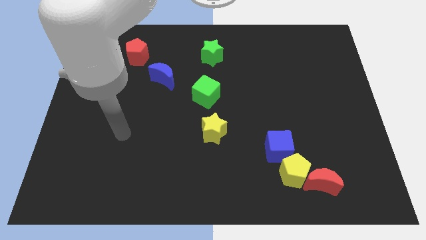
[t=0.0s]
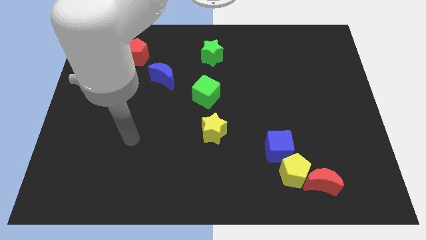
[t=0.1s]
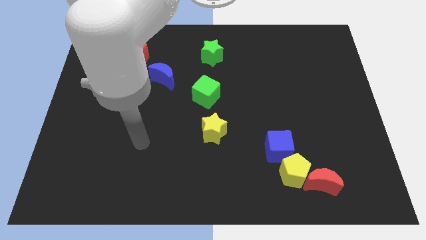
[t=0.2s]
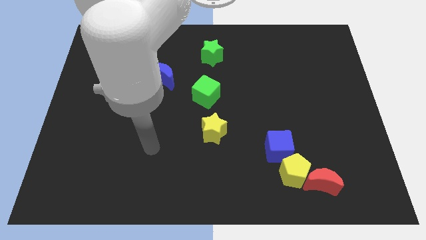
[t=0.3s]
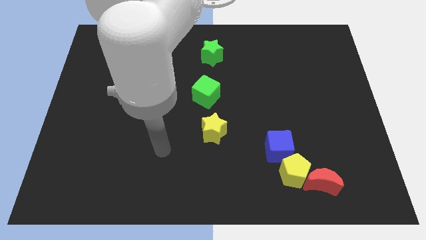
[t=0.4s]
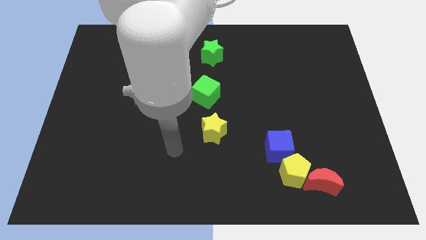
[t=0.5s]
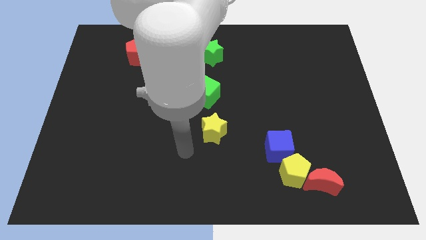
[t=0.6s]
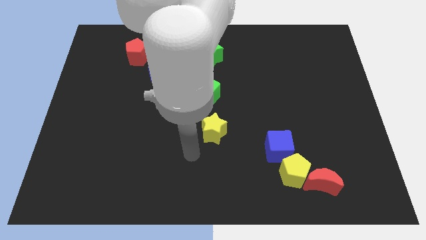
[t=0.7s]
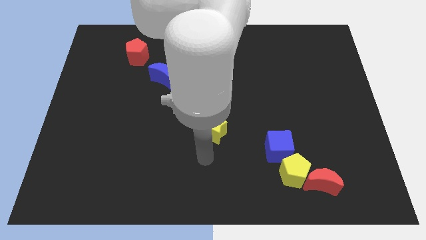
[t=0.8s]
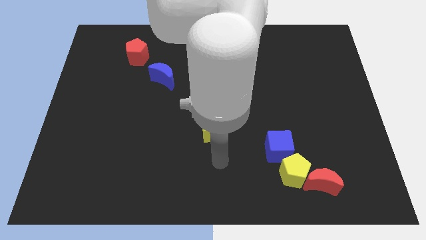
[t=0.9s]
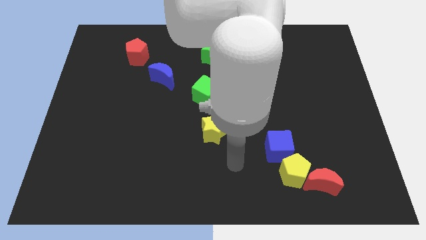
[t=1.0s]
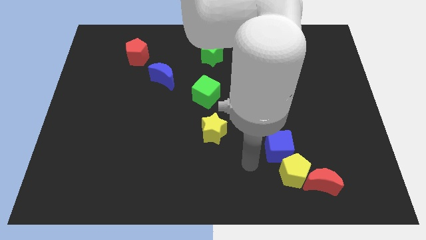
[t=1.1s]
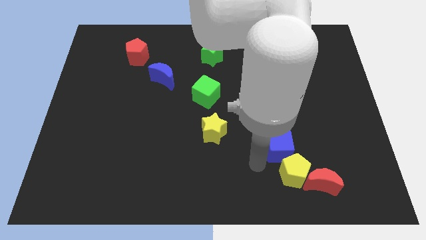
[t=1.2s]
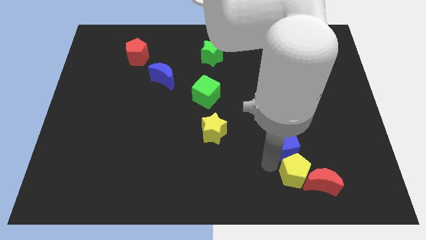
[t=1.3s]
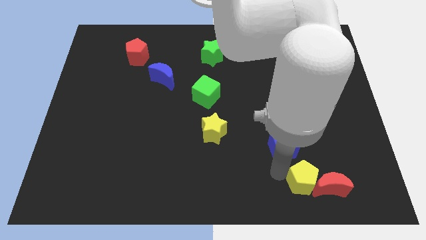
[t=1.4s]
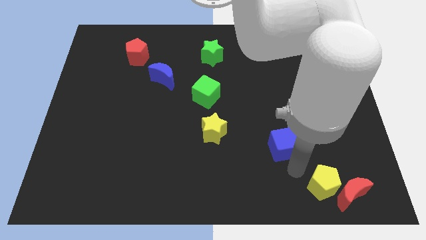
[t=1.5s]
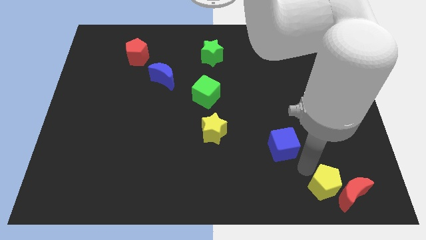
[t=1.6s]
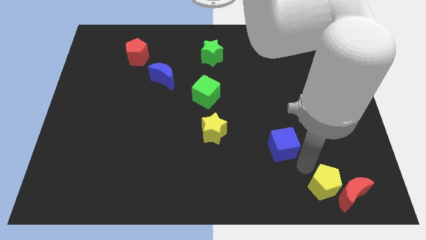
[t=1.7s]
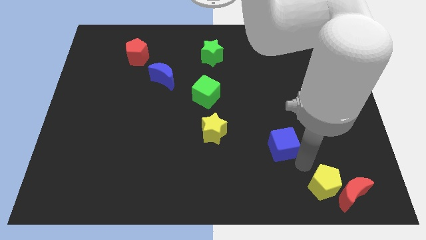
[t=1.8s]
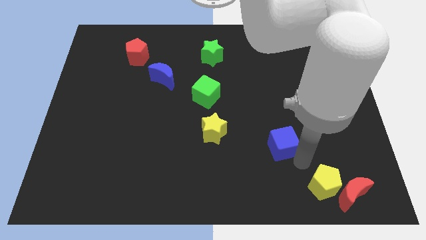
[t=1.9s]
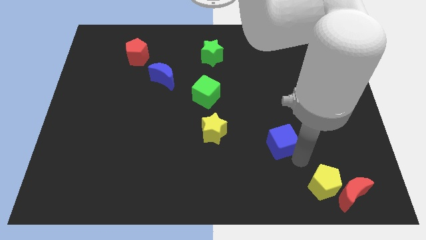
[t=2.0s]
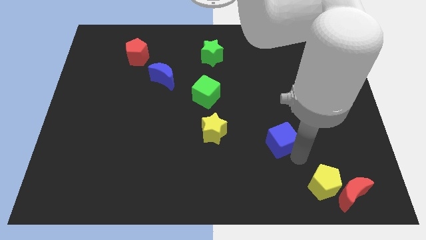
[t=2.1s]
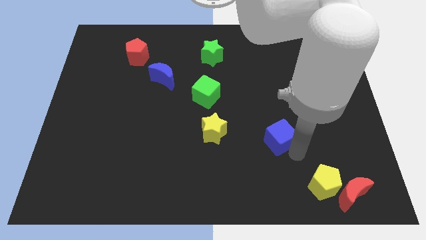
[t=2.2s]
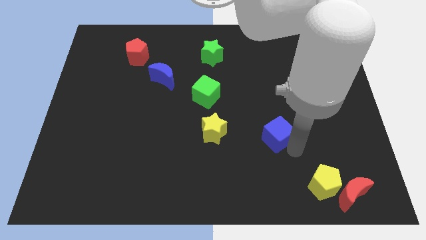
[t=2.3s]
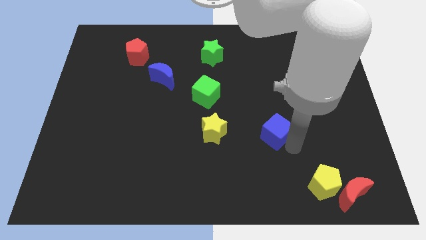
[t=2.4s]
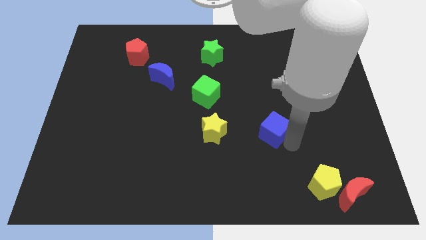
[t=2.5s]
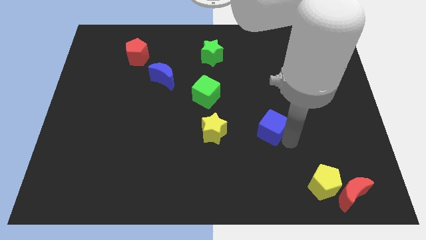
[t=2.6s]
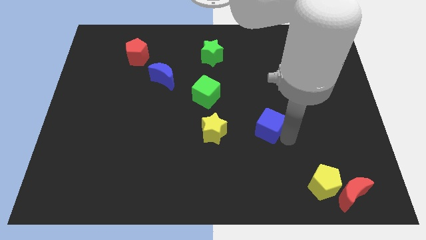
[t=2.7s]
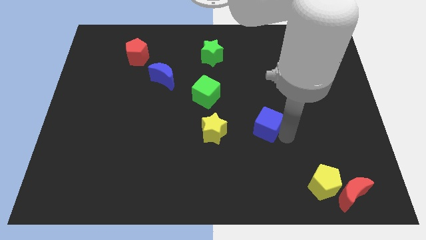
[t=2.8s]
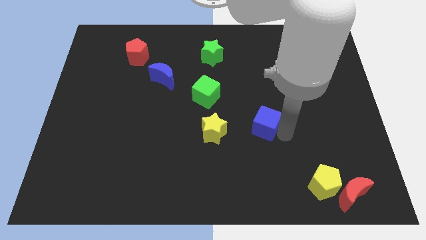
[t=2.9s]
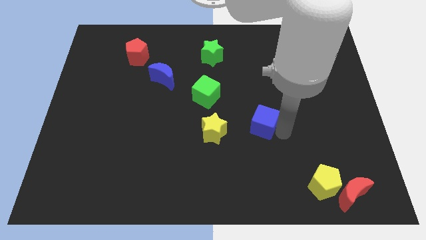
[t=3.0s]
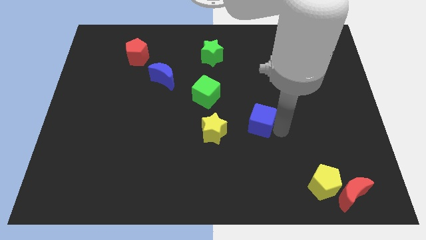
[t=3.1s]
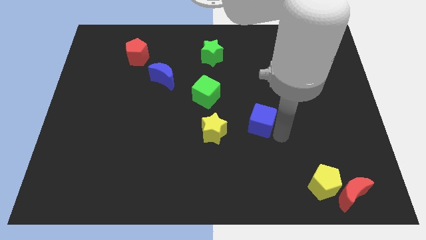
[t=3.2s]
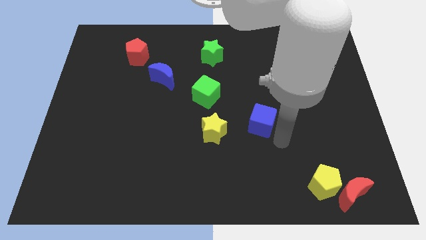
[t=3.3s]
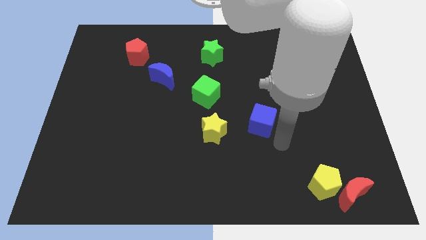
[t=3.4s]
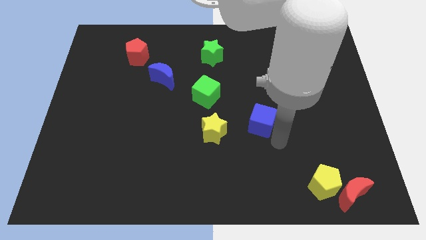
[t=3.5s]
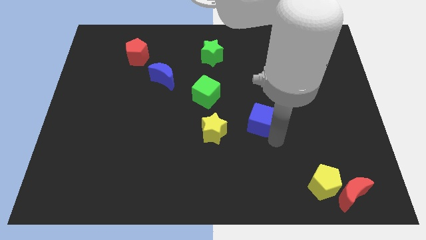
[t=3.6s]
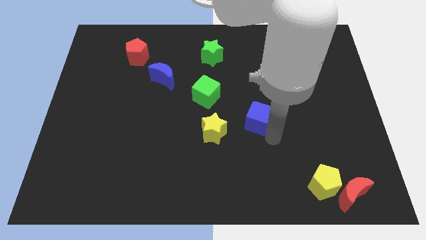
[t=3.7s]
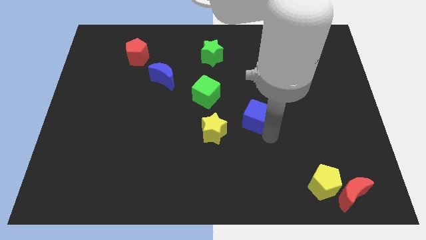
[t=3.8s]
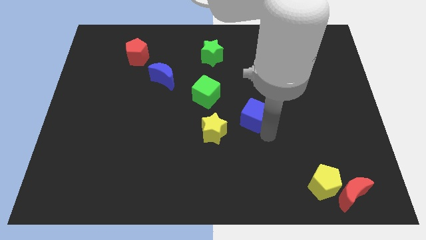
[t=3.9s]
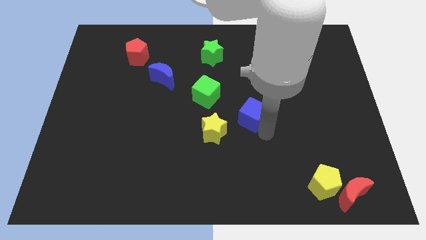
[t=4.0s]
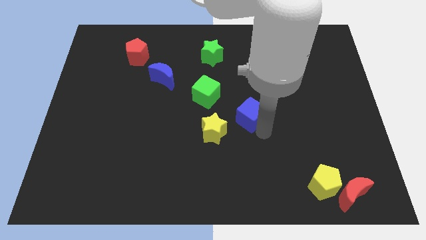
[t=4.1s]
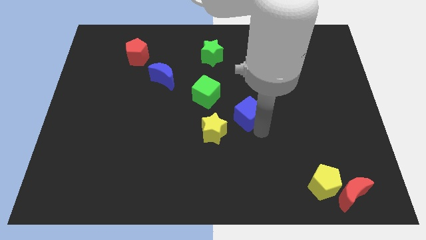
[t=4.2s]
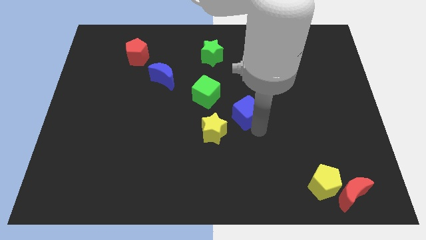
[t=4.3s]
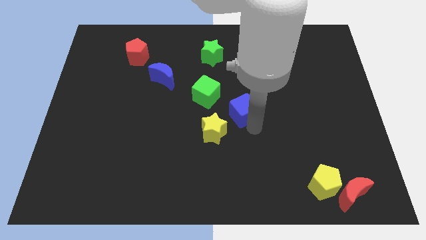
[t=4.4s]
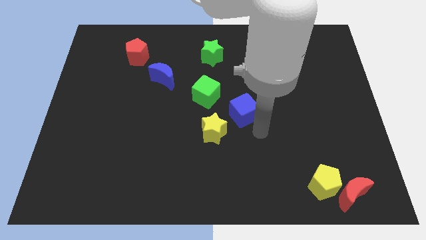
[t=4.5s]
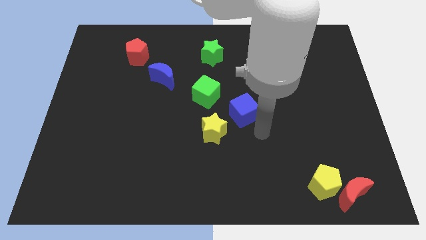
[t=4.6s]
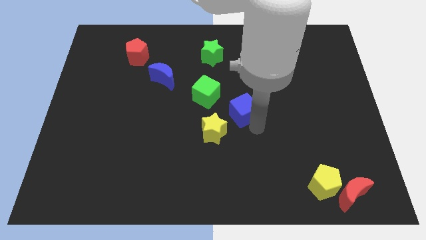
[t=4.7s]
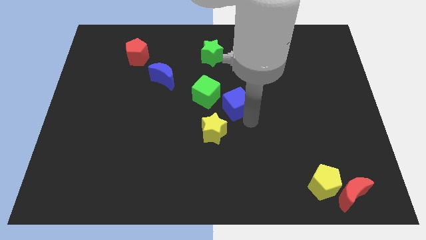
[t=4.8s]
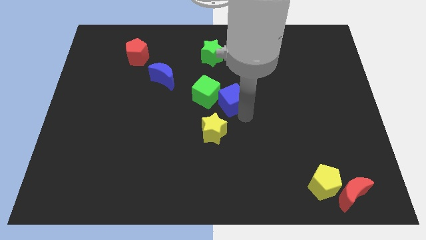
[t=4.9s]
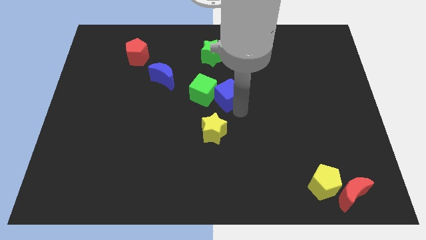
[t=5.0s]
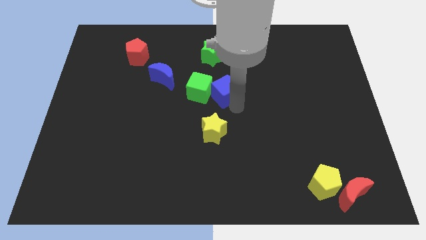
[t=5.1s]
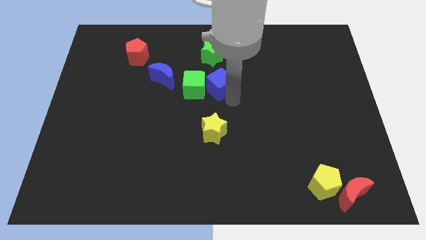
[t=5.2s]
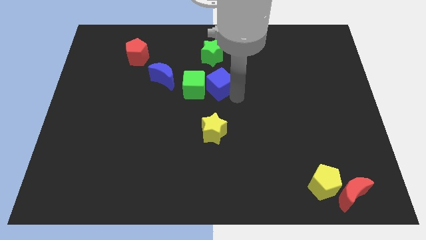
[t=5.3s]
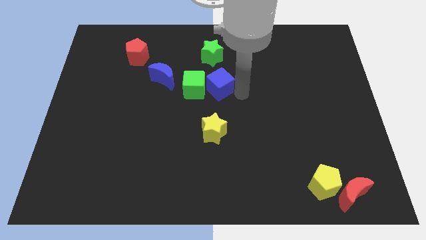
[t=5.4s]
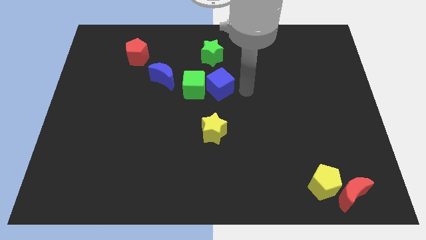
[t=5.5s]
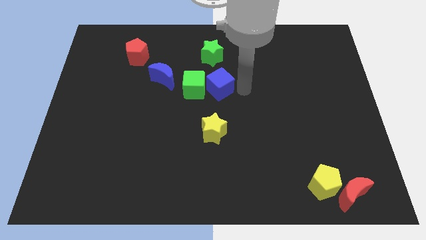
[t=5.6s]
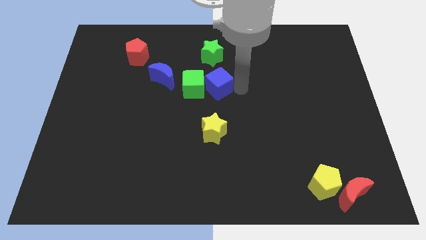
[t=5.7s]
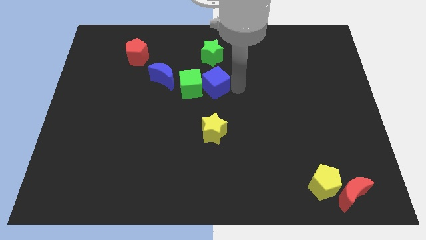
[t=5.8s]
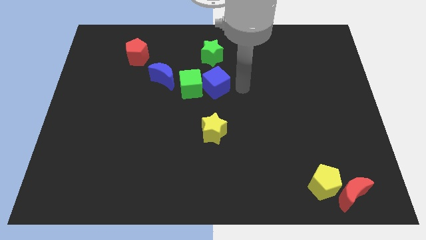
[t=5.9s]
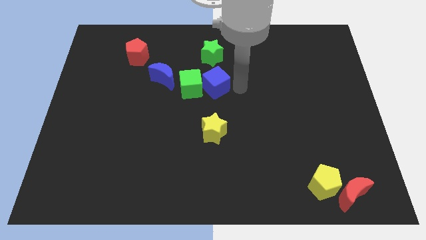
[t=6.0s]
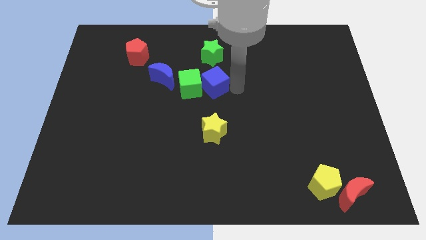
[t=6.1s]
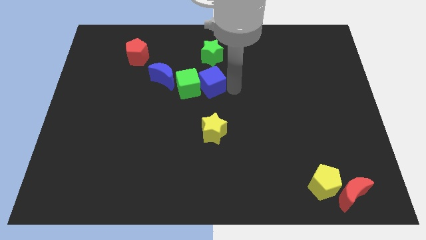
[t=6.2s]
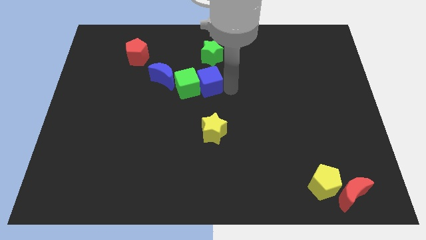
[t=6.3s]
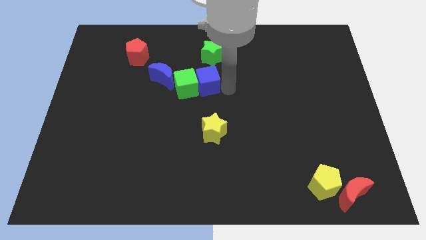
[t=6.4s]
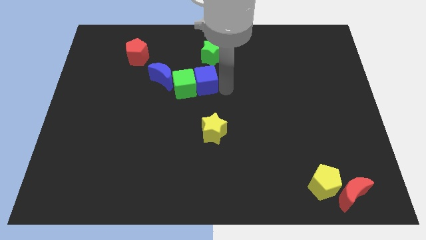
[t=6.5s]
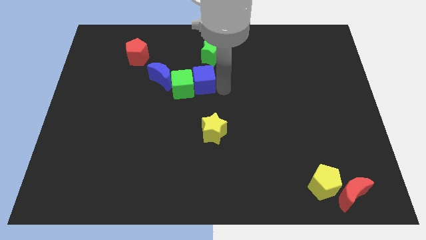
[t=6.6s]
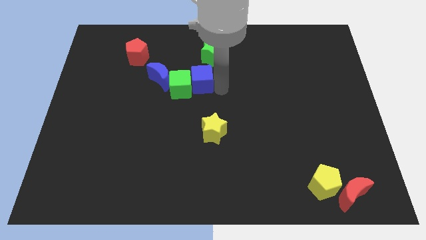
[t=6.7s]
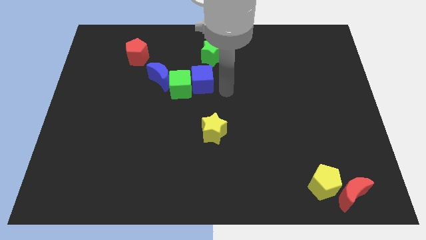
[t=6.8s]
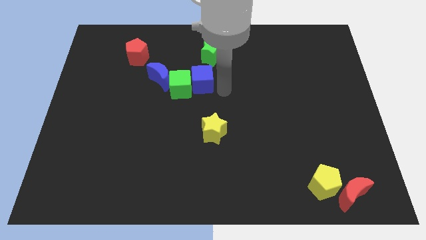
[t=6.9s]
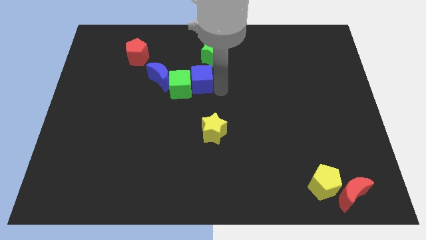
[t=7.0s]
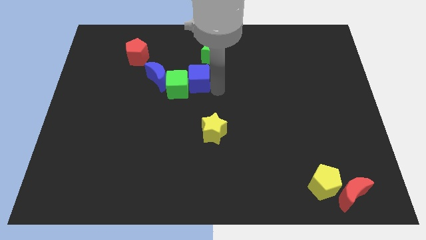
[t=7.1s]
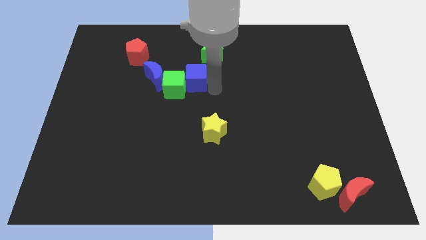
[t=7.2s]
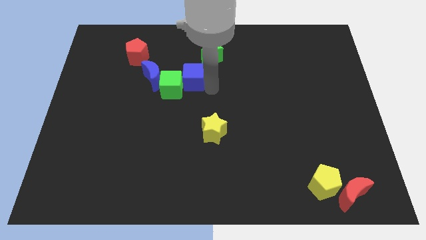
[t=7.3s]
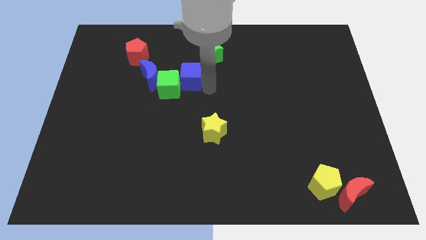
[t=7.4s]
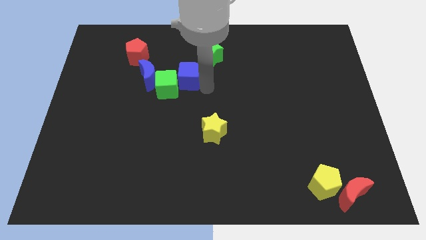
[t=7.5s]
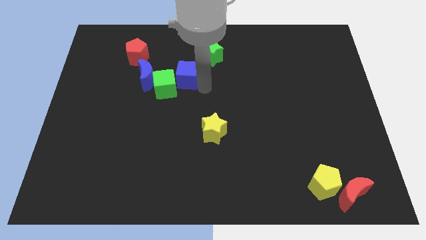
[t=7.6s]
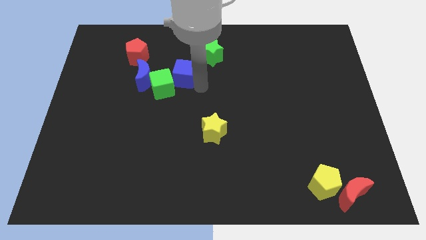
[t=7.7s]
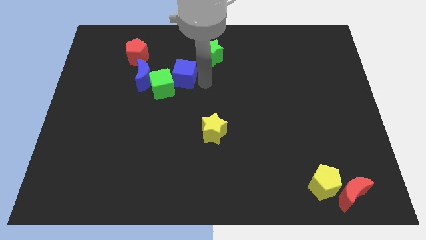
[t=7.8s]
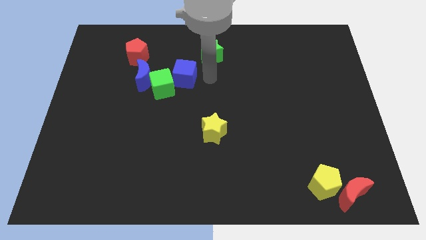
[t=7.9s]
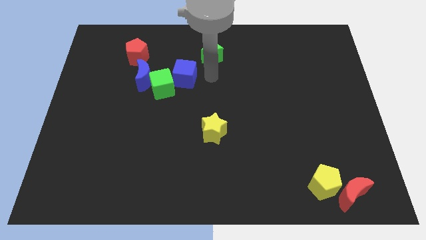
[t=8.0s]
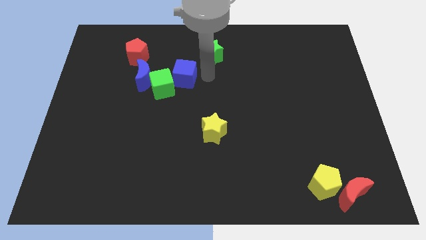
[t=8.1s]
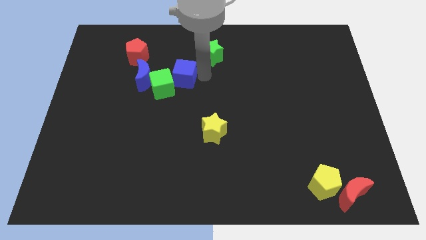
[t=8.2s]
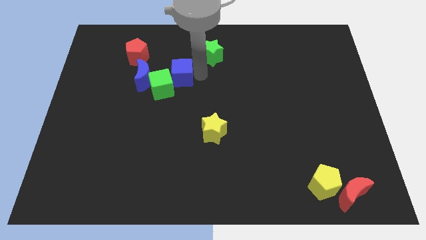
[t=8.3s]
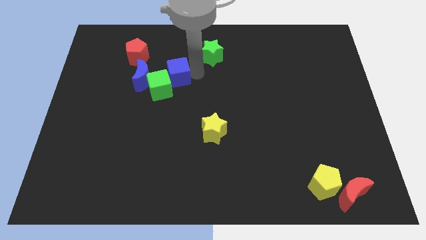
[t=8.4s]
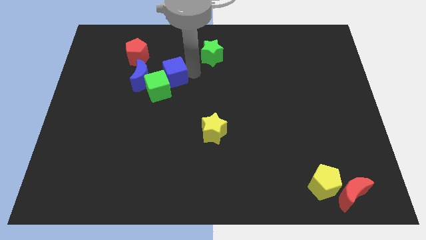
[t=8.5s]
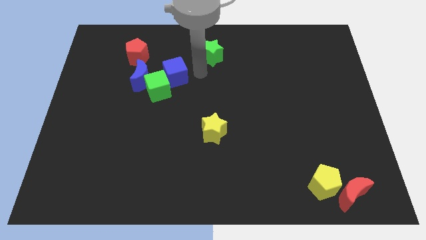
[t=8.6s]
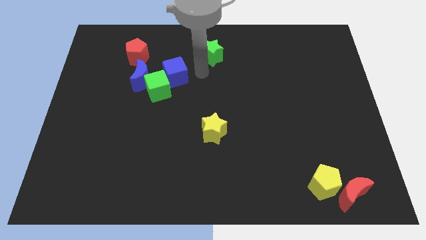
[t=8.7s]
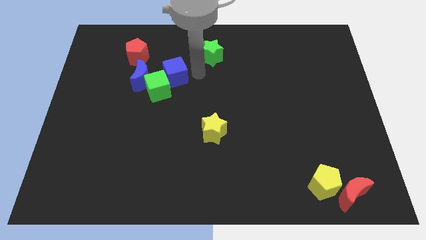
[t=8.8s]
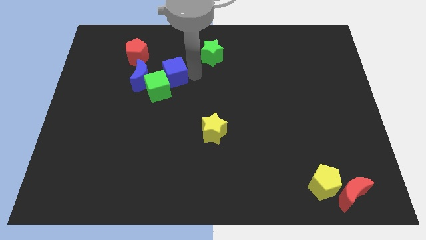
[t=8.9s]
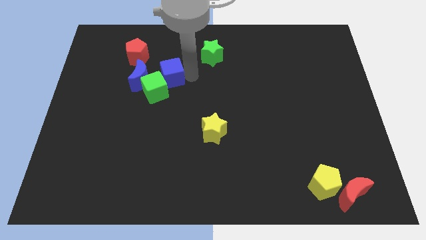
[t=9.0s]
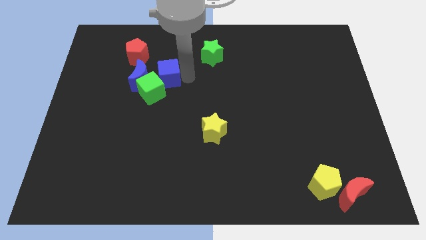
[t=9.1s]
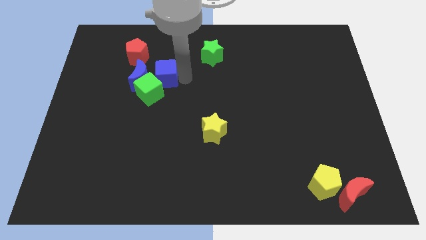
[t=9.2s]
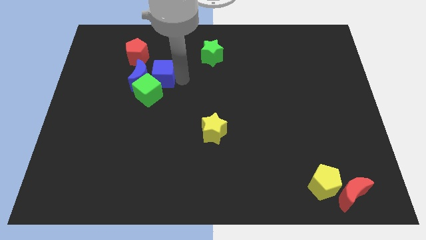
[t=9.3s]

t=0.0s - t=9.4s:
put the blue cube next to the blue moon
